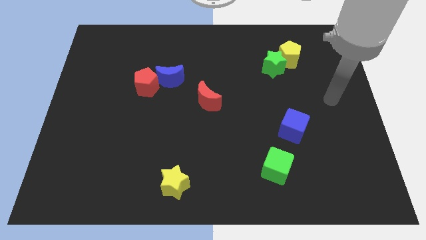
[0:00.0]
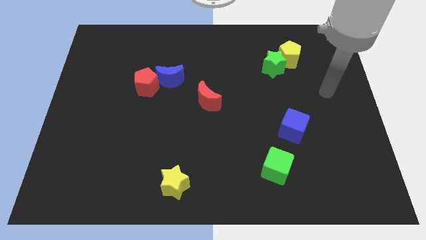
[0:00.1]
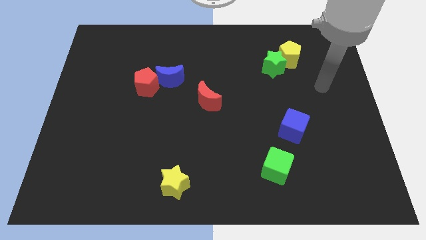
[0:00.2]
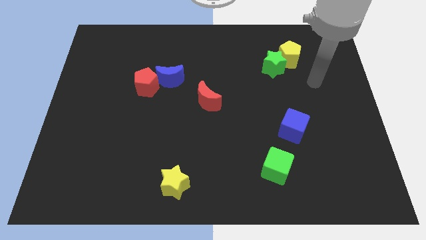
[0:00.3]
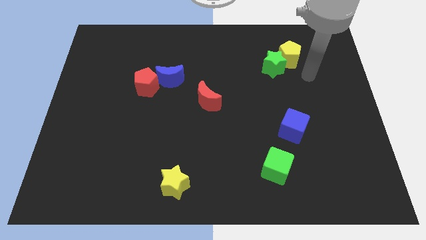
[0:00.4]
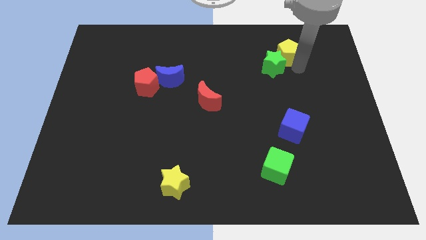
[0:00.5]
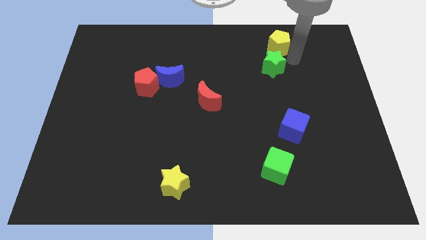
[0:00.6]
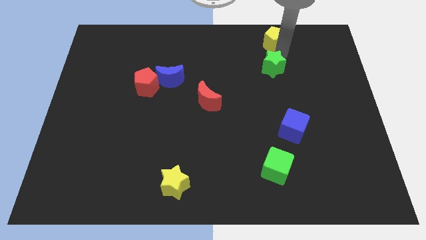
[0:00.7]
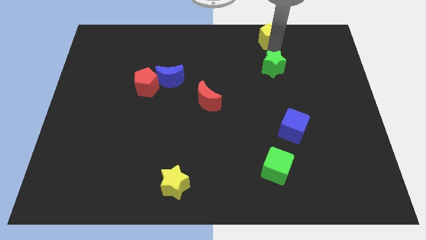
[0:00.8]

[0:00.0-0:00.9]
separate the green star from the yellow pentagon

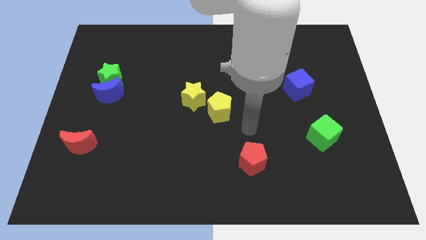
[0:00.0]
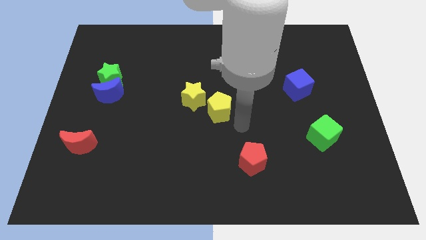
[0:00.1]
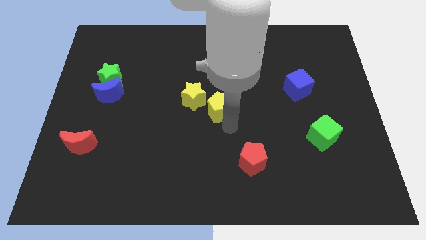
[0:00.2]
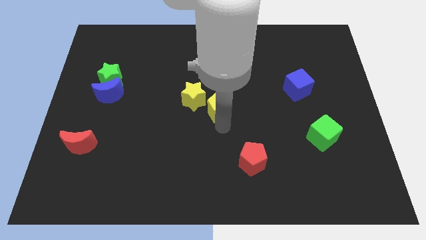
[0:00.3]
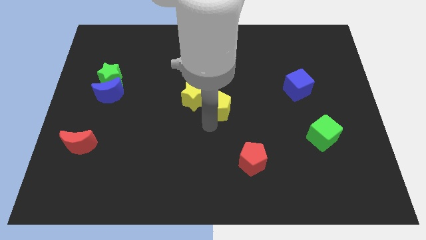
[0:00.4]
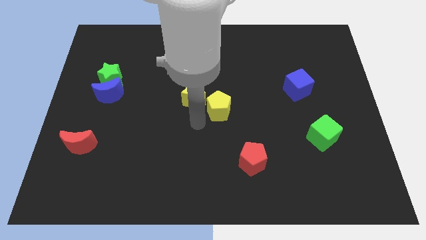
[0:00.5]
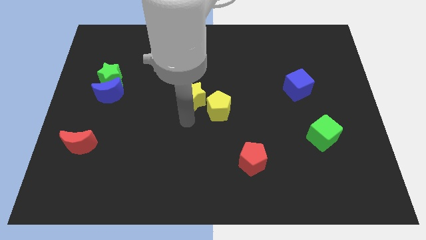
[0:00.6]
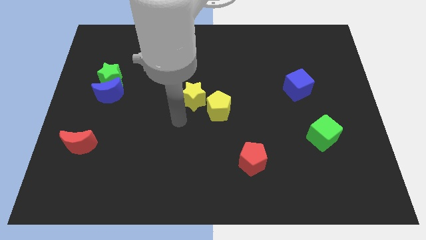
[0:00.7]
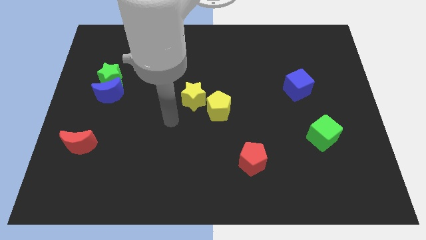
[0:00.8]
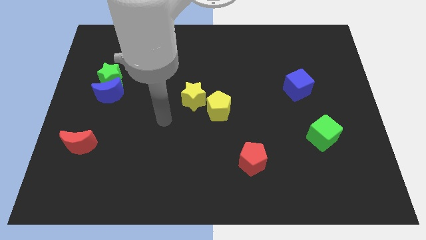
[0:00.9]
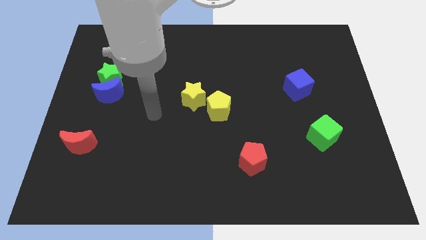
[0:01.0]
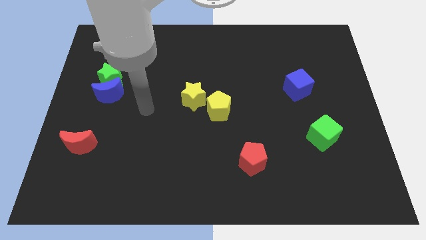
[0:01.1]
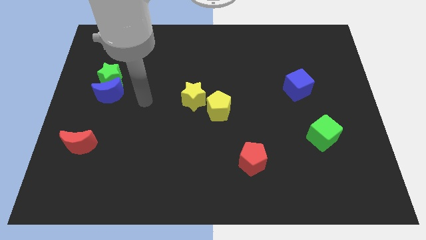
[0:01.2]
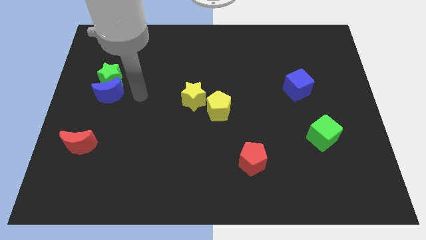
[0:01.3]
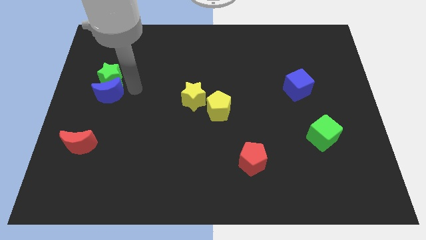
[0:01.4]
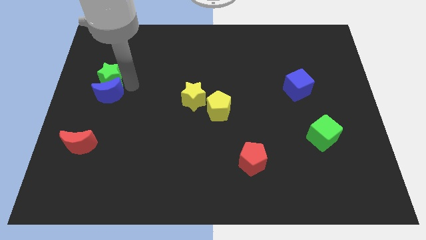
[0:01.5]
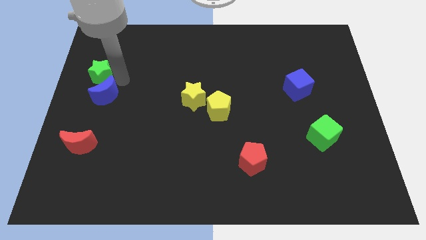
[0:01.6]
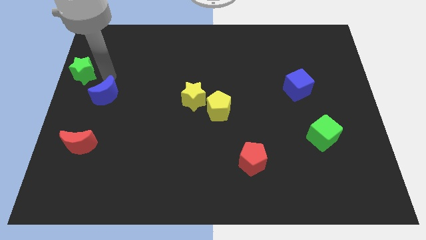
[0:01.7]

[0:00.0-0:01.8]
pull the blue moon apart from the green star

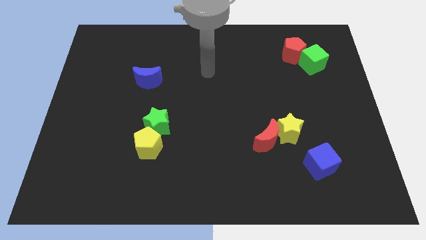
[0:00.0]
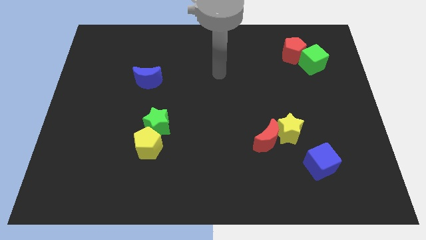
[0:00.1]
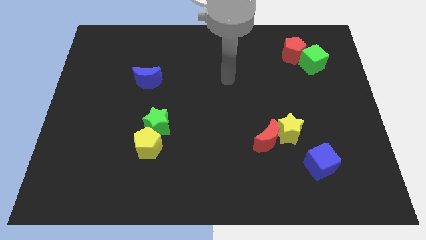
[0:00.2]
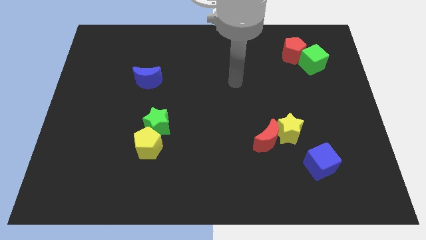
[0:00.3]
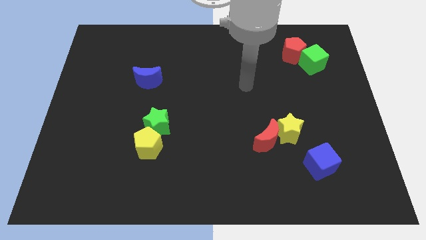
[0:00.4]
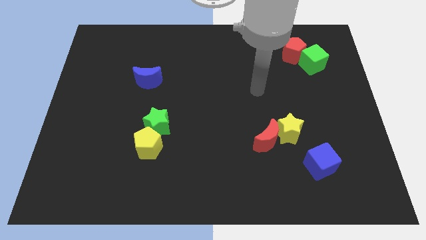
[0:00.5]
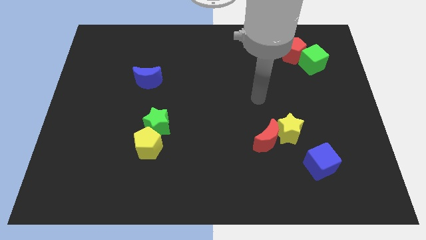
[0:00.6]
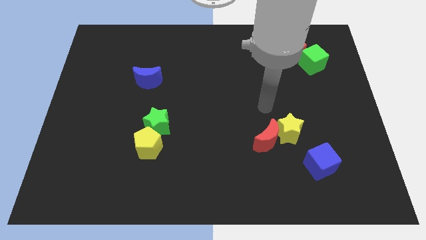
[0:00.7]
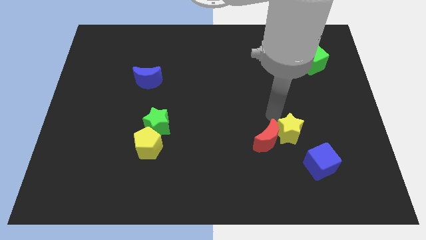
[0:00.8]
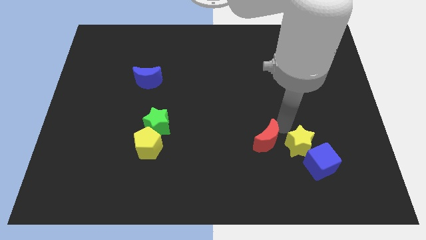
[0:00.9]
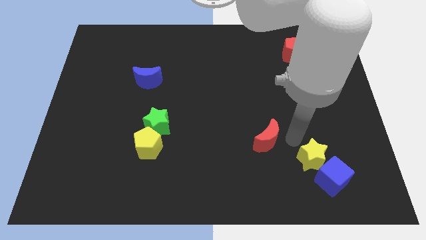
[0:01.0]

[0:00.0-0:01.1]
move the red moon away from the yellow star

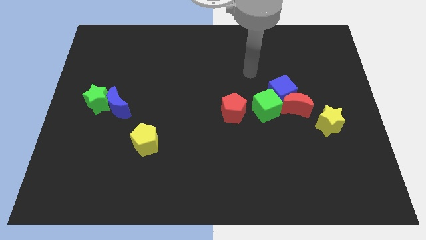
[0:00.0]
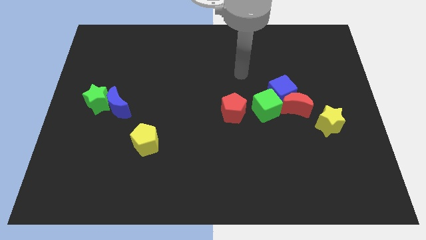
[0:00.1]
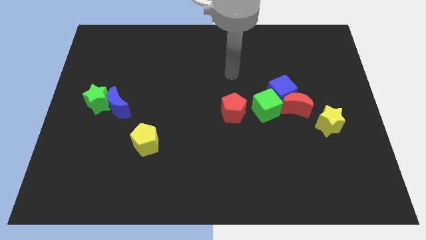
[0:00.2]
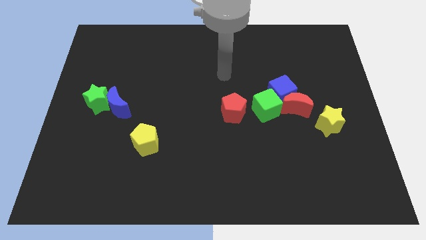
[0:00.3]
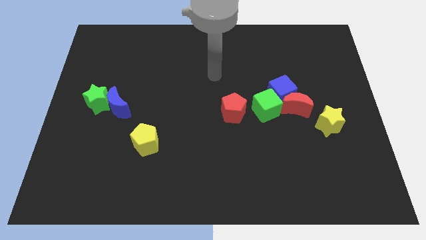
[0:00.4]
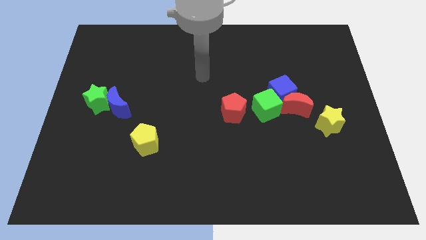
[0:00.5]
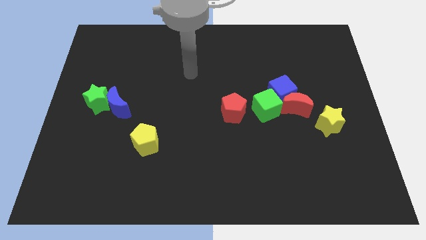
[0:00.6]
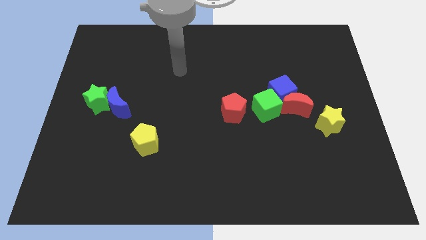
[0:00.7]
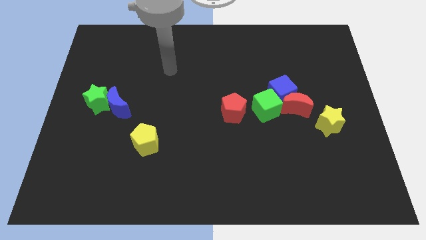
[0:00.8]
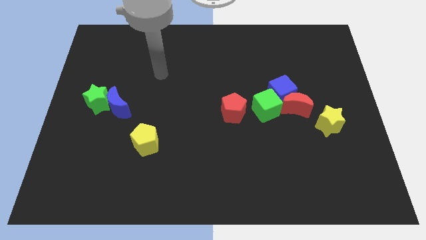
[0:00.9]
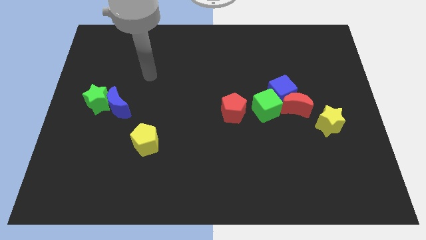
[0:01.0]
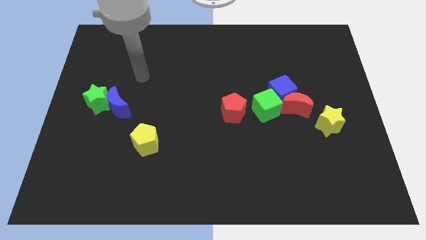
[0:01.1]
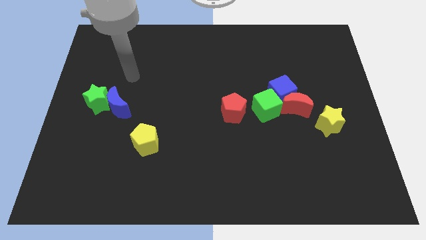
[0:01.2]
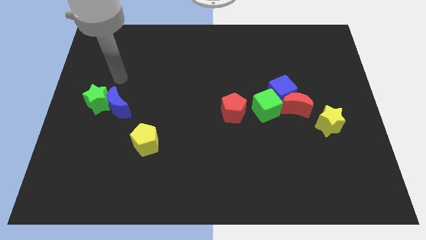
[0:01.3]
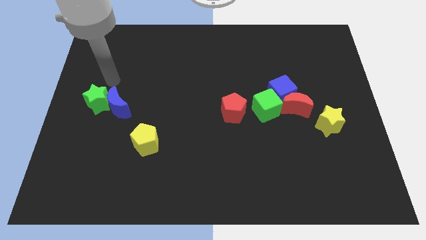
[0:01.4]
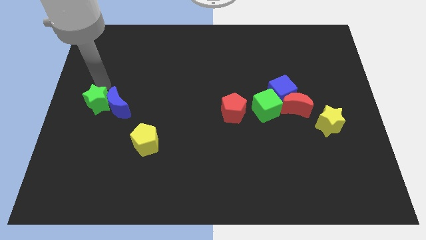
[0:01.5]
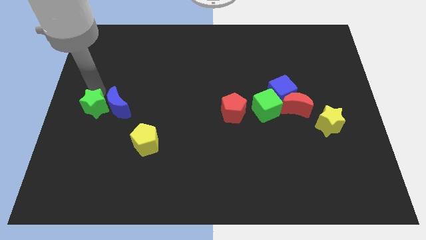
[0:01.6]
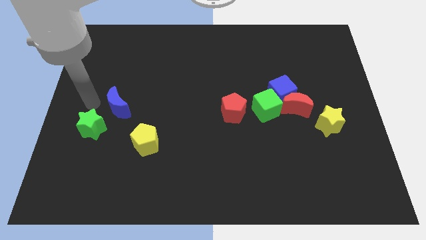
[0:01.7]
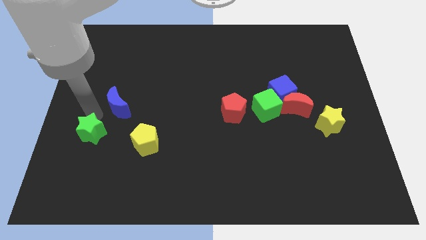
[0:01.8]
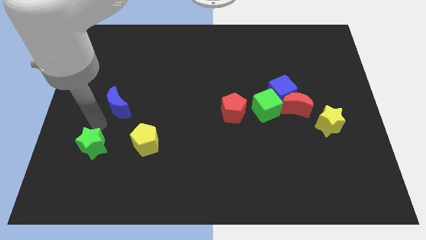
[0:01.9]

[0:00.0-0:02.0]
separate the blue moon from the green star

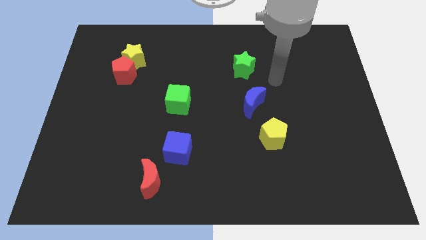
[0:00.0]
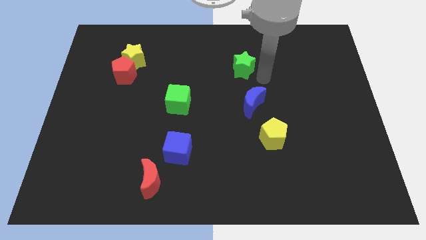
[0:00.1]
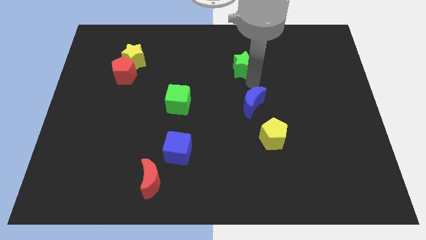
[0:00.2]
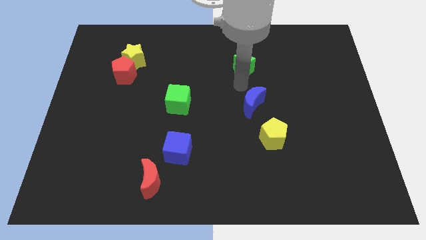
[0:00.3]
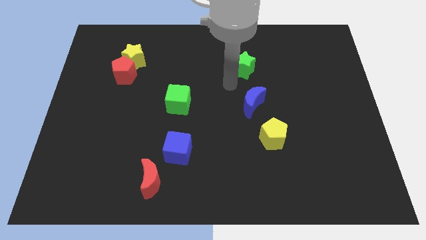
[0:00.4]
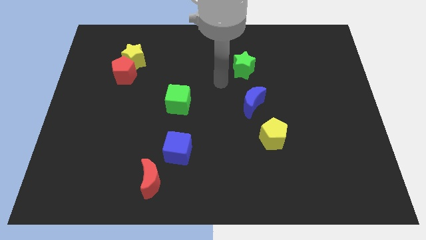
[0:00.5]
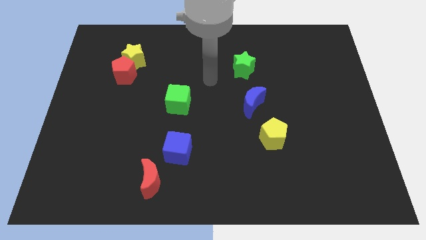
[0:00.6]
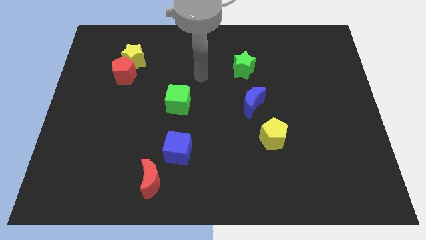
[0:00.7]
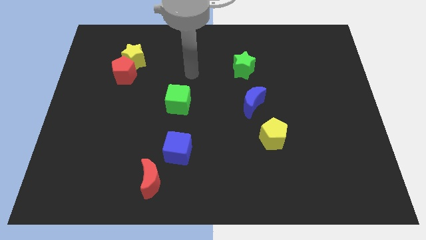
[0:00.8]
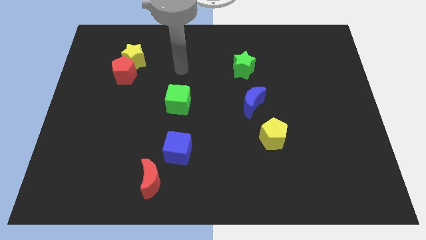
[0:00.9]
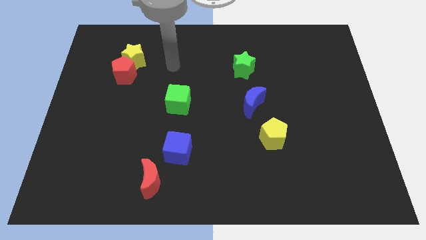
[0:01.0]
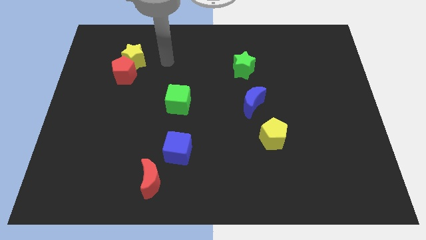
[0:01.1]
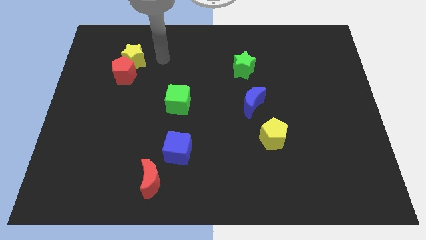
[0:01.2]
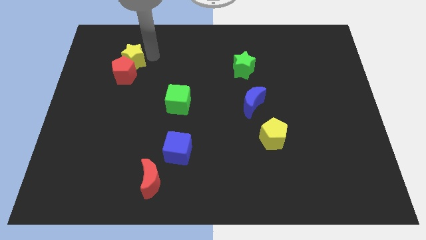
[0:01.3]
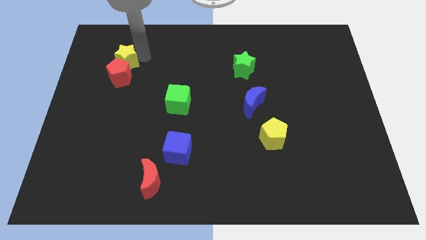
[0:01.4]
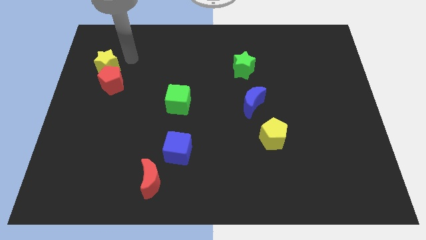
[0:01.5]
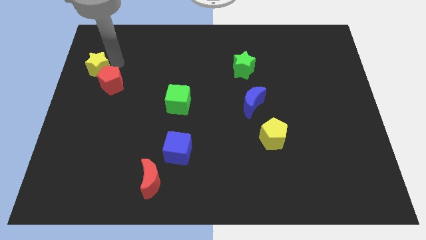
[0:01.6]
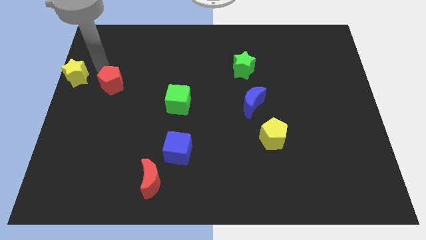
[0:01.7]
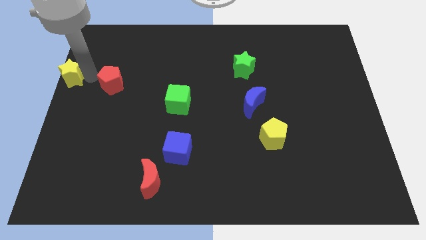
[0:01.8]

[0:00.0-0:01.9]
move the red pentagon away from the yellow star

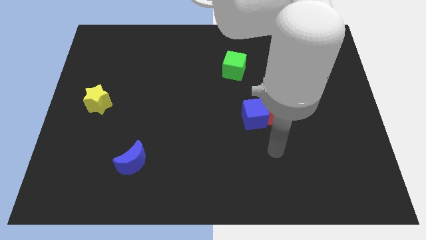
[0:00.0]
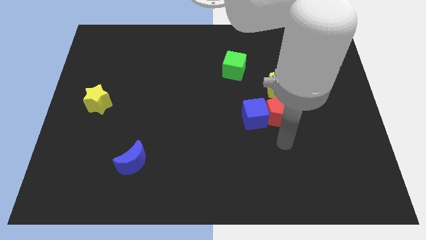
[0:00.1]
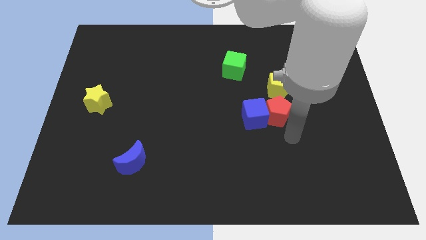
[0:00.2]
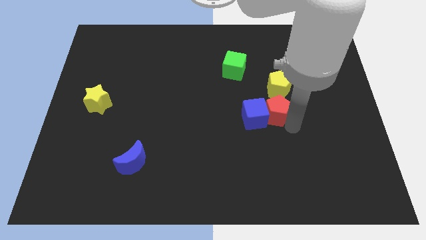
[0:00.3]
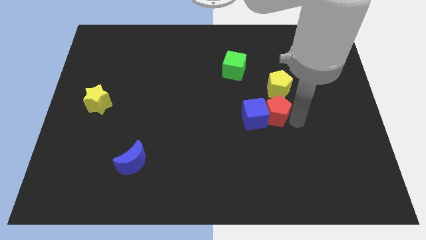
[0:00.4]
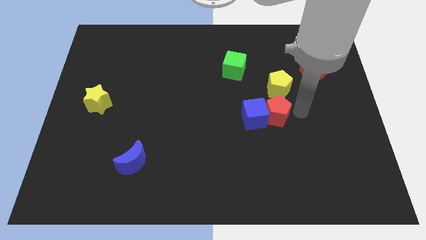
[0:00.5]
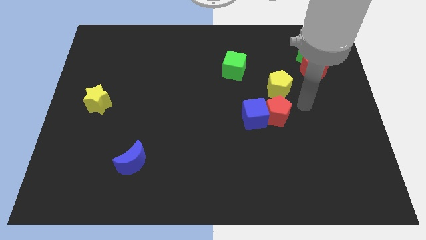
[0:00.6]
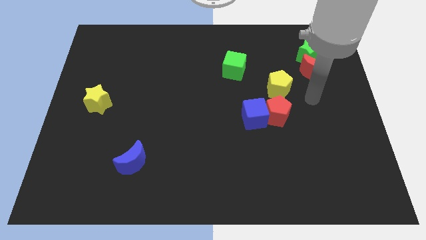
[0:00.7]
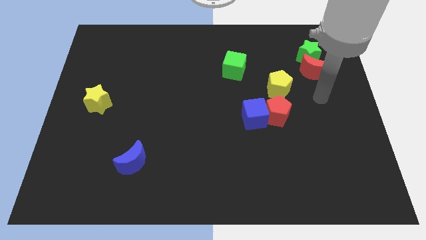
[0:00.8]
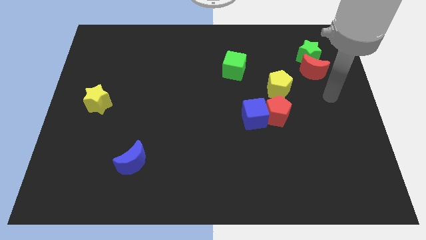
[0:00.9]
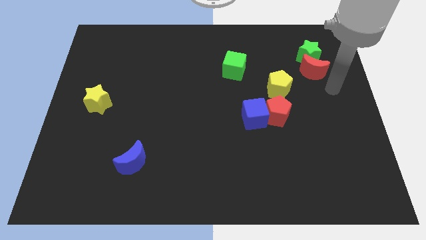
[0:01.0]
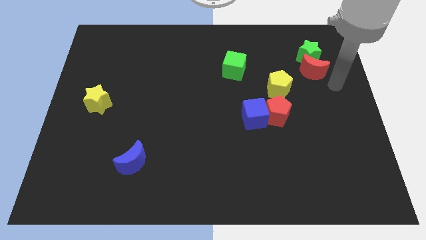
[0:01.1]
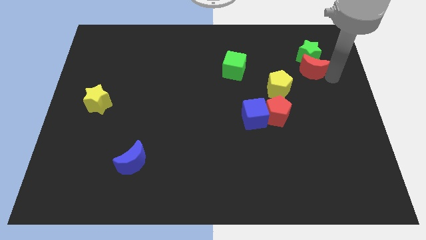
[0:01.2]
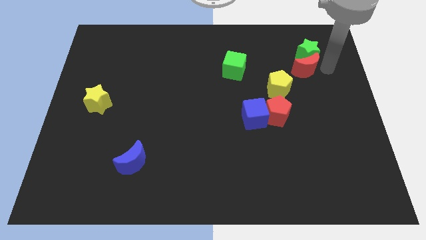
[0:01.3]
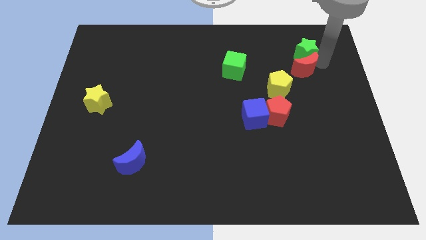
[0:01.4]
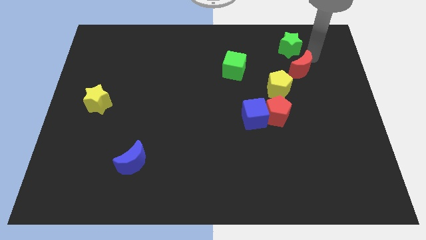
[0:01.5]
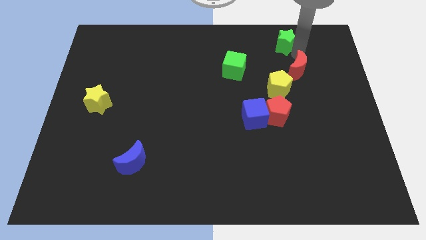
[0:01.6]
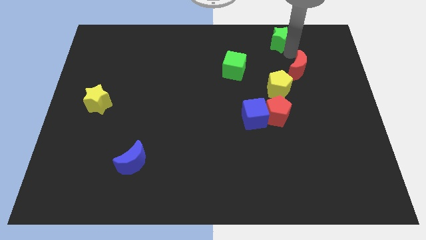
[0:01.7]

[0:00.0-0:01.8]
separate the red moon from the green star
